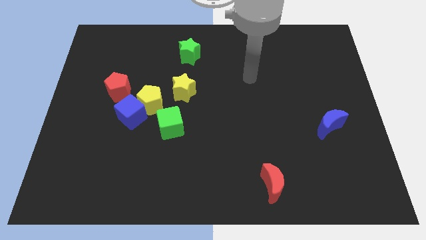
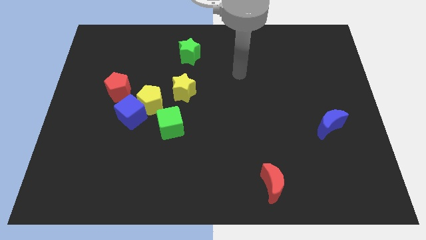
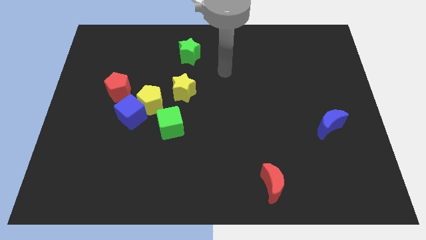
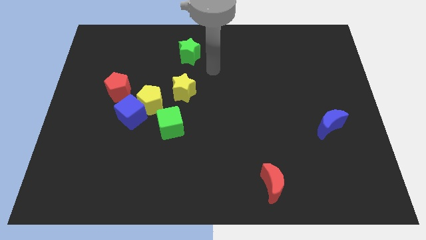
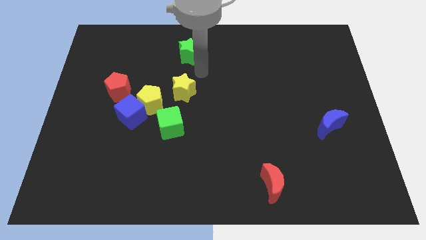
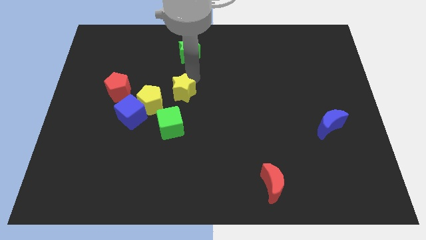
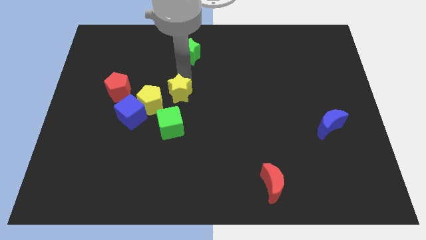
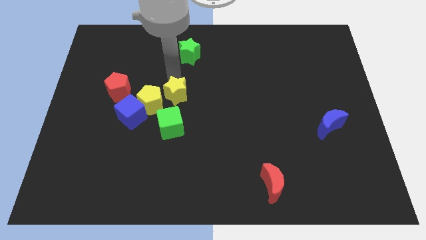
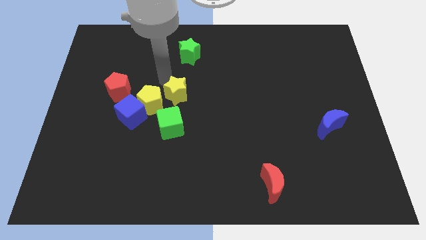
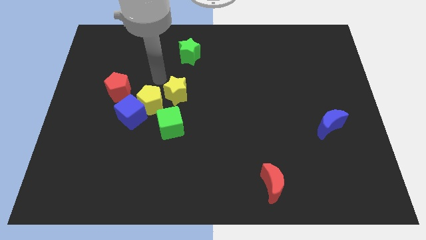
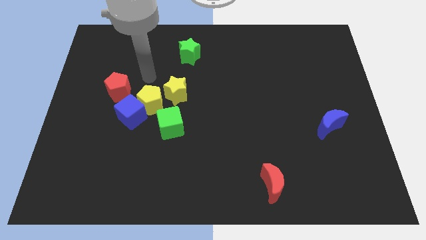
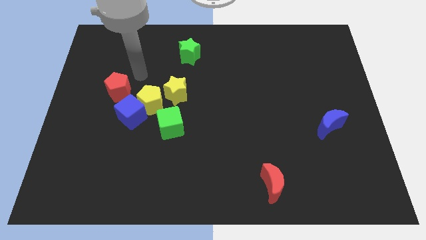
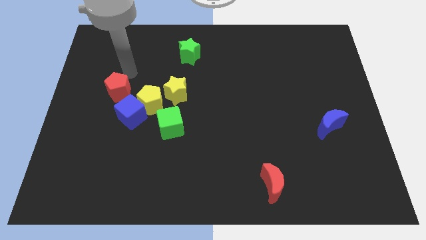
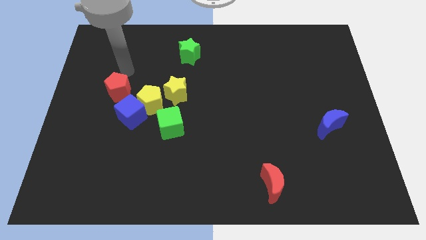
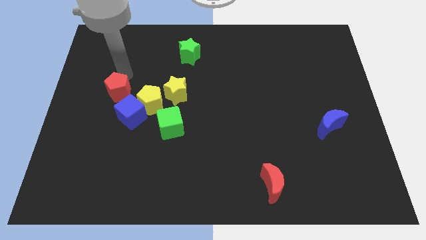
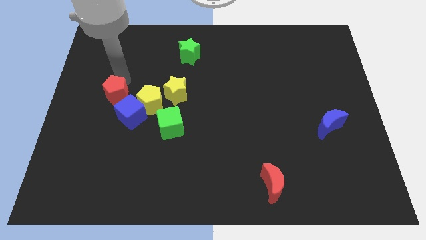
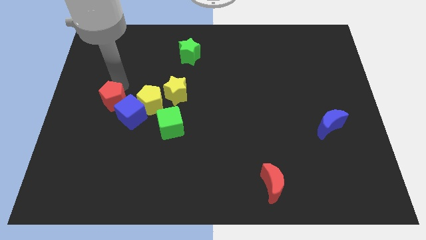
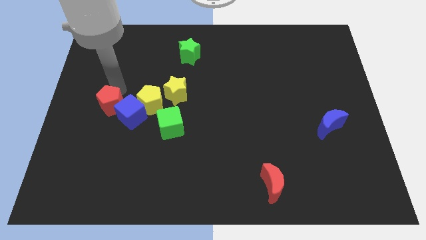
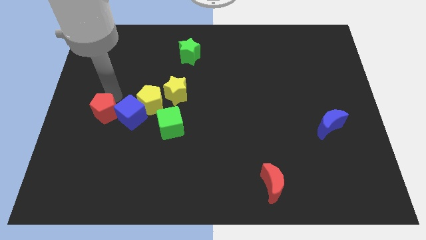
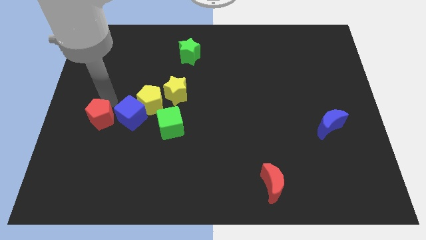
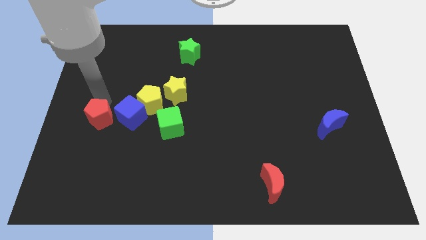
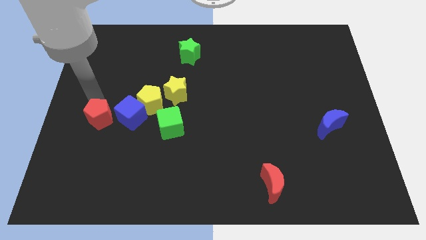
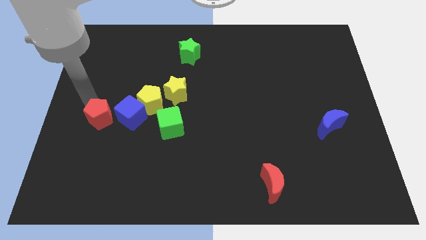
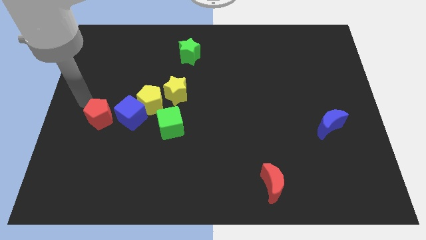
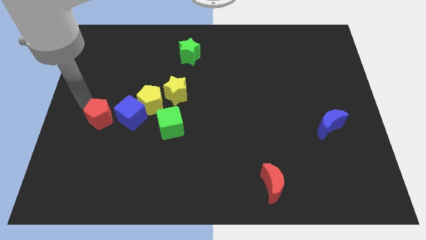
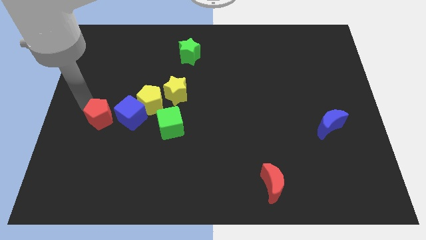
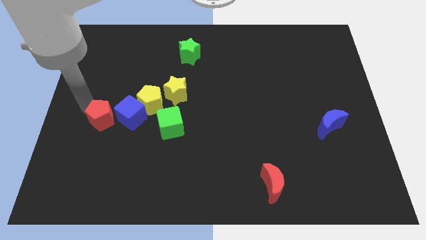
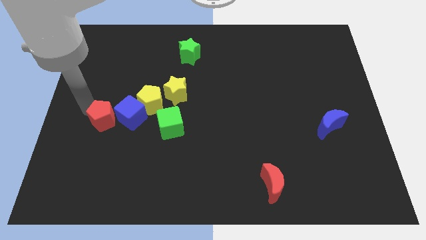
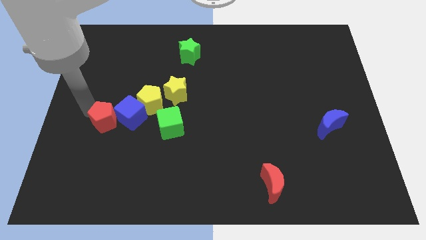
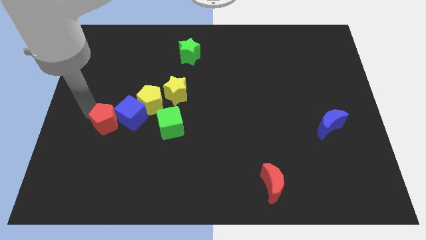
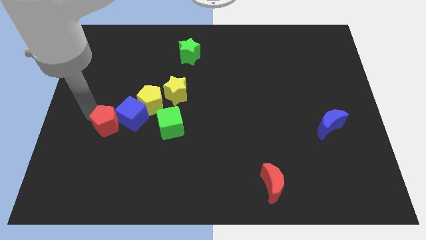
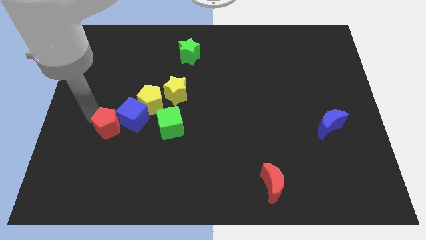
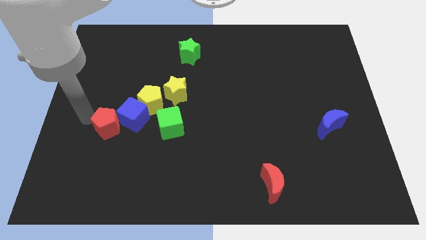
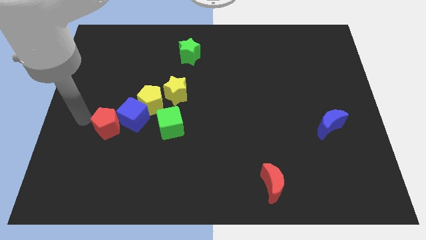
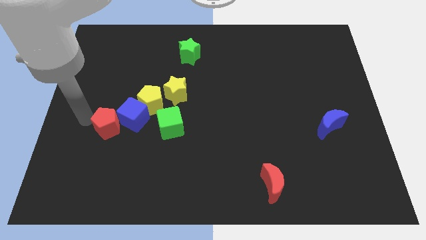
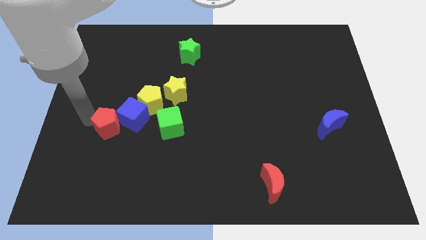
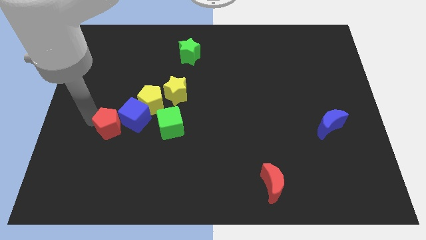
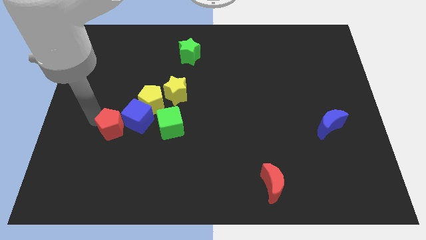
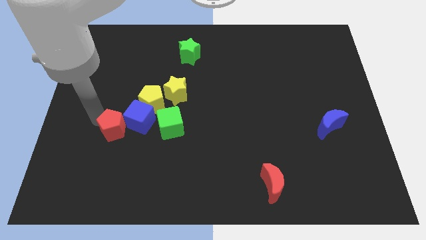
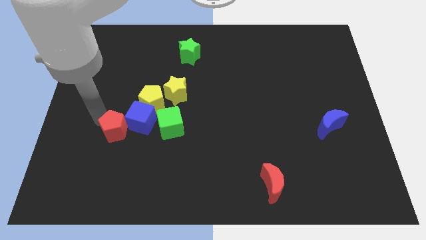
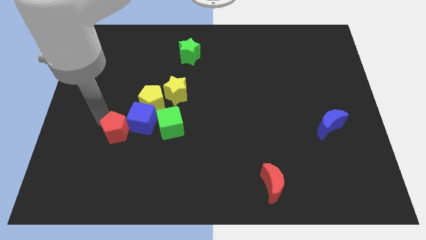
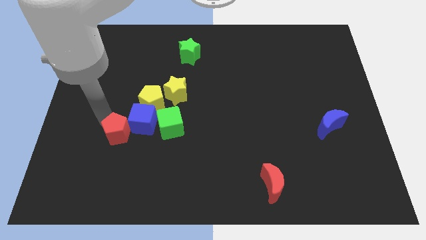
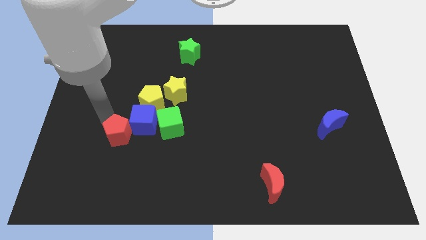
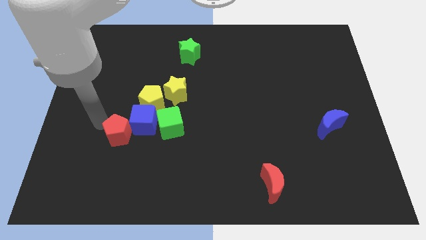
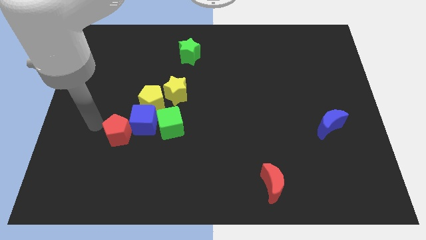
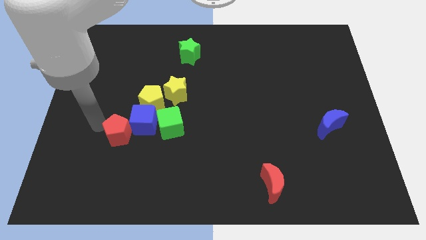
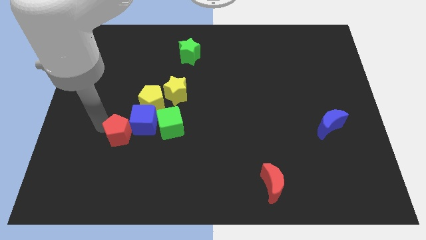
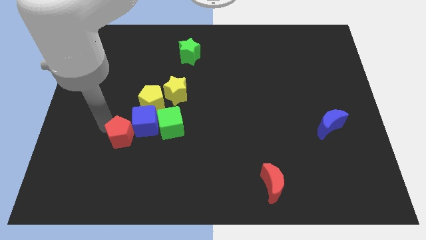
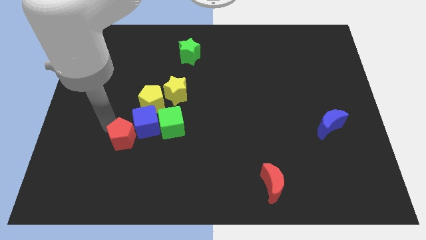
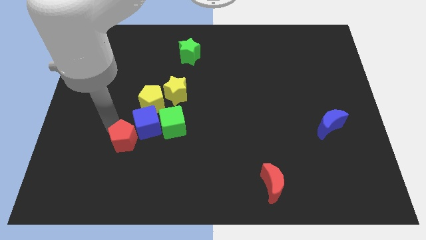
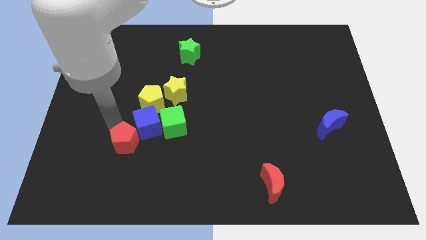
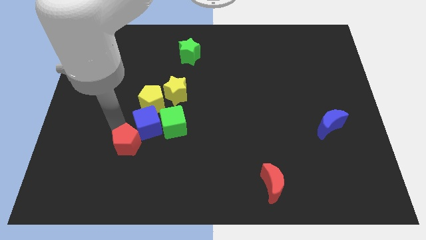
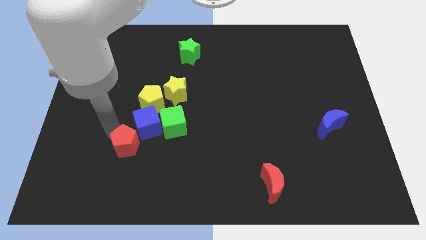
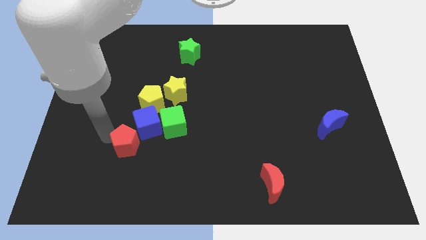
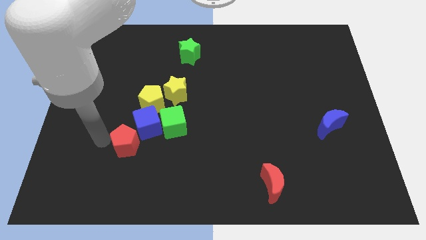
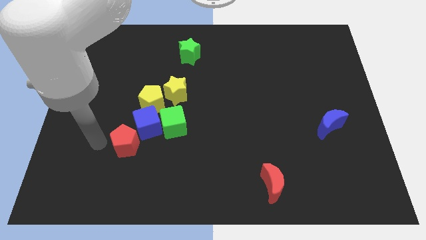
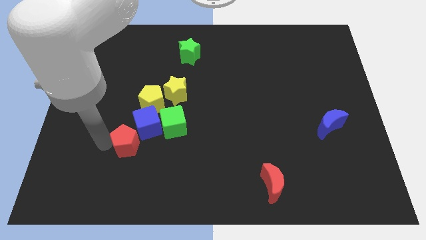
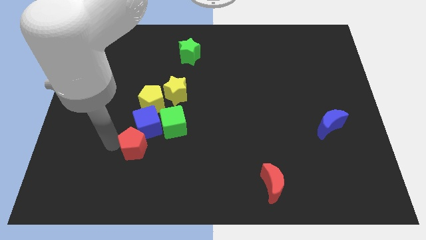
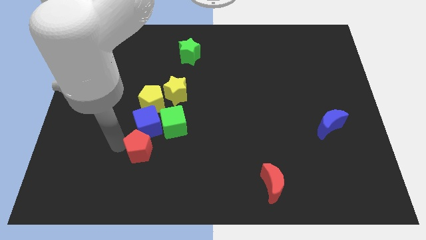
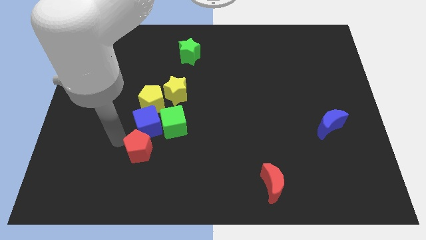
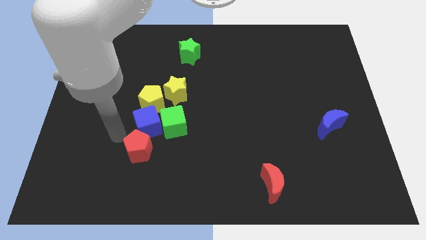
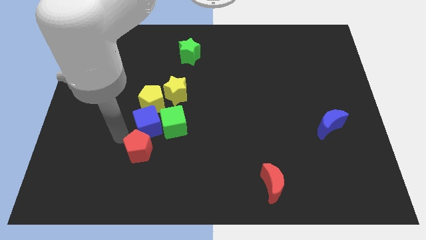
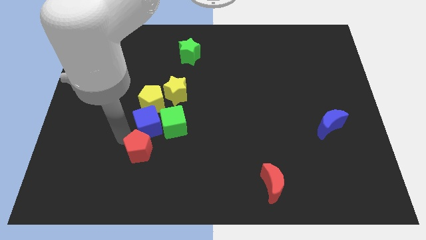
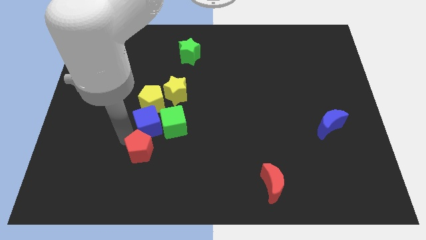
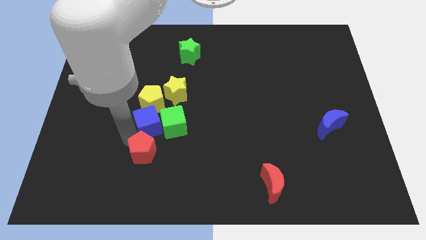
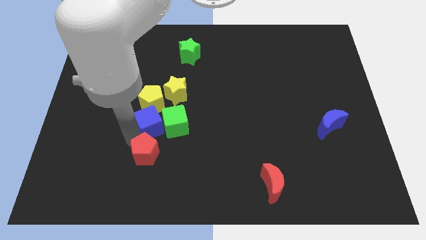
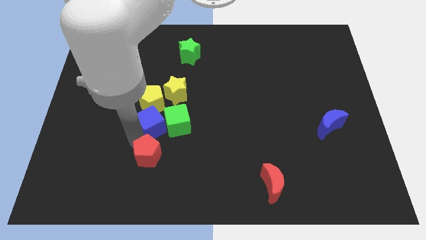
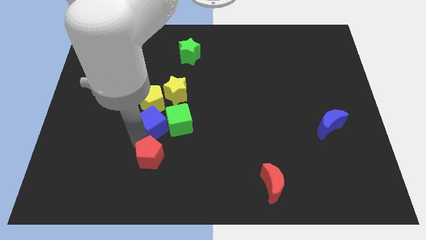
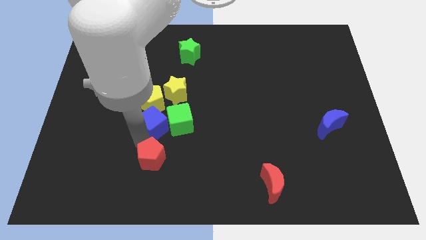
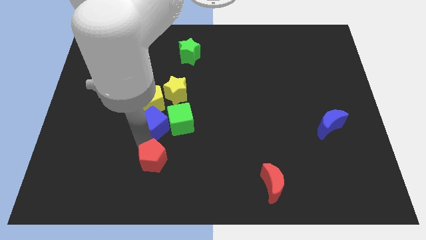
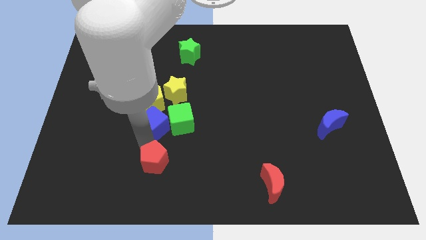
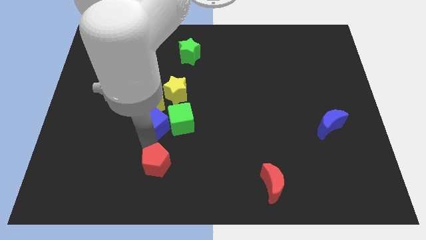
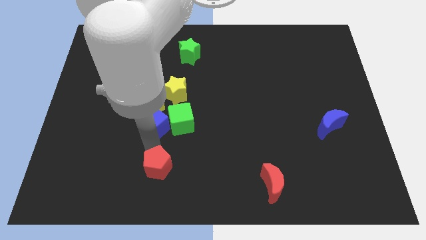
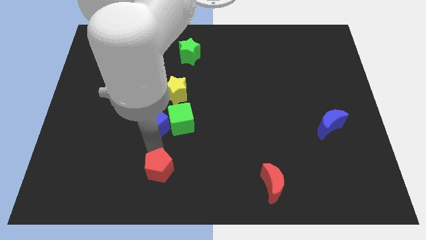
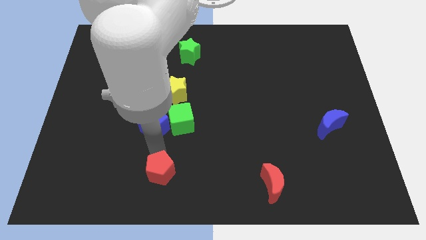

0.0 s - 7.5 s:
move the red pentagon to the bottom

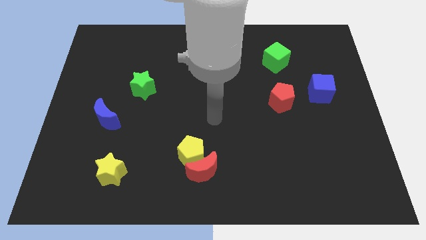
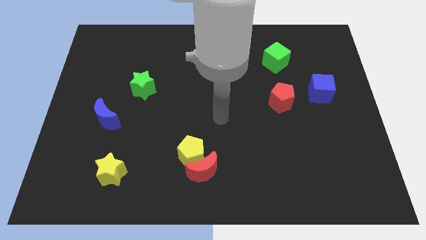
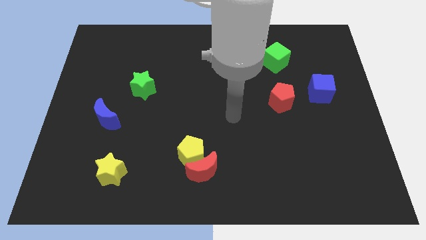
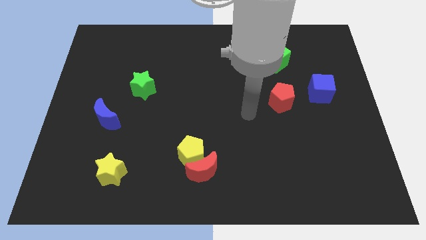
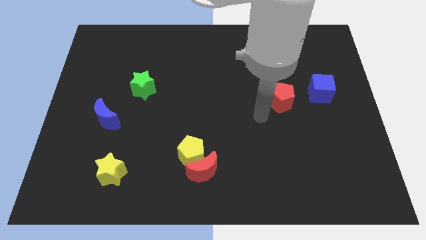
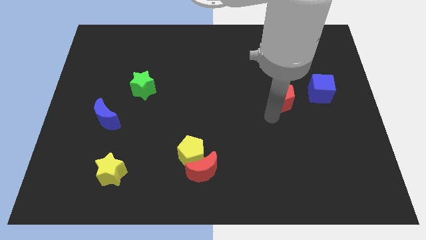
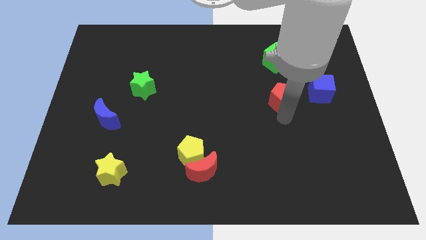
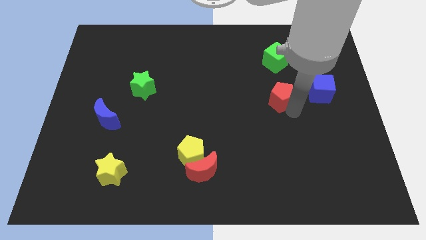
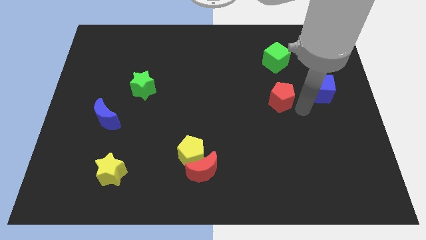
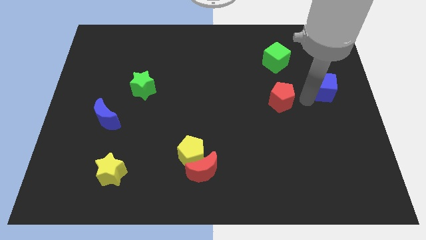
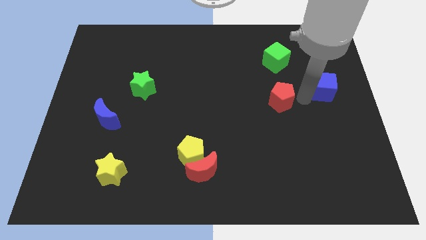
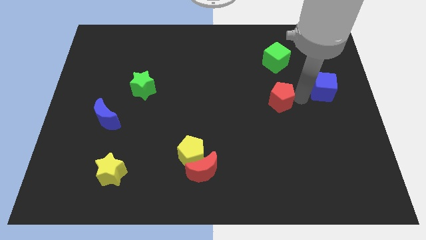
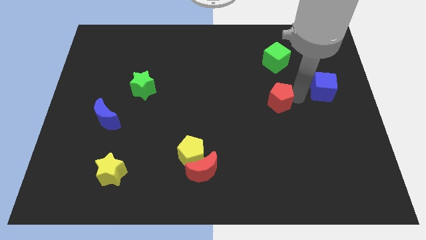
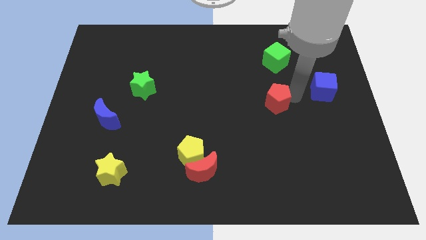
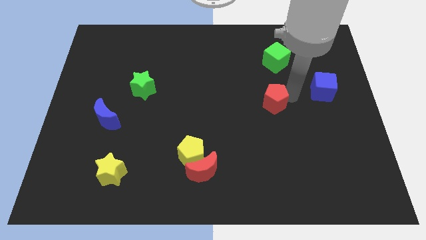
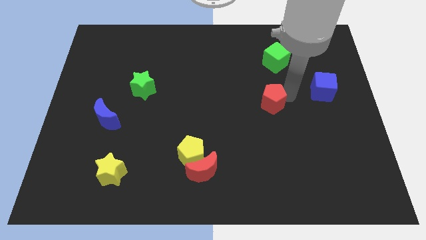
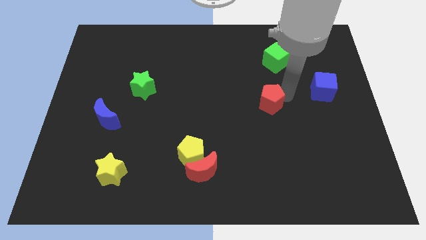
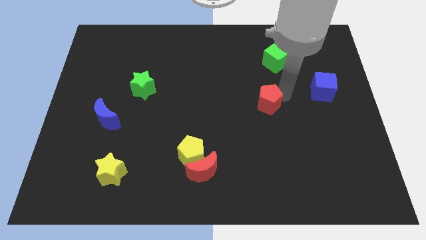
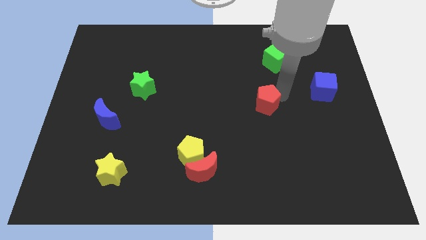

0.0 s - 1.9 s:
move the red pentagon to the center of the board
